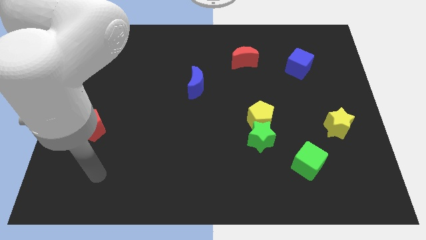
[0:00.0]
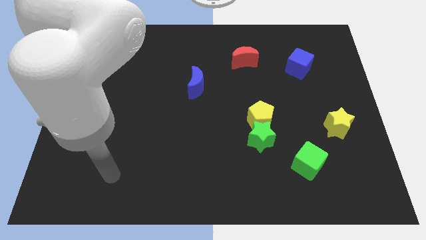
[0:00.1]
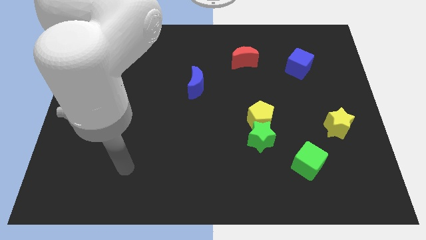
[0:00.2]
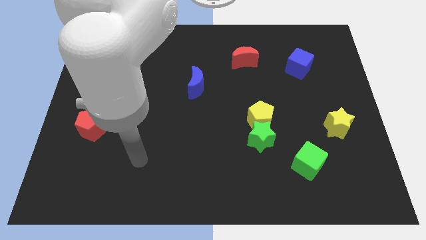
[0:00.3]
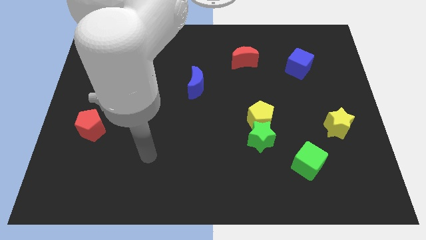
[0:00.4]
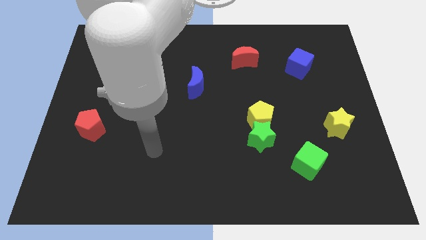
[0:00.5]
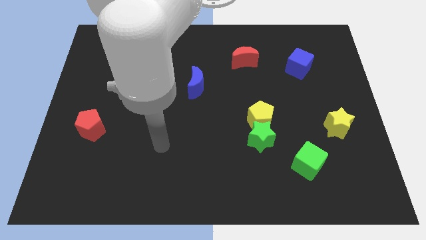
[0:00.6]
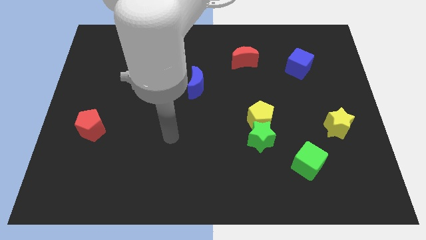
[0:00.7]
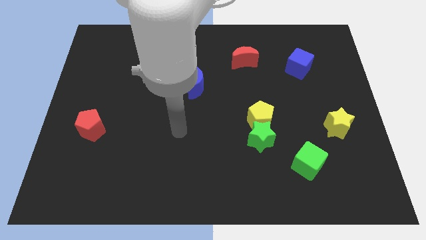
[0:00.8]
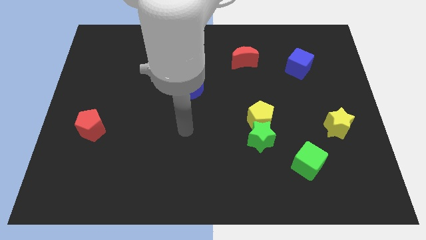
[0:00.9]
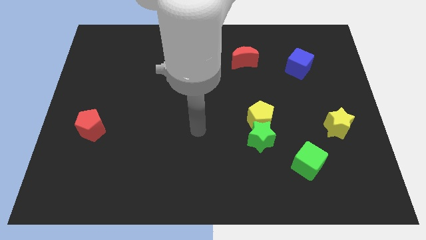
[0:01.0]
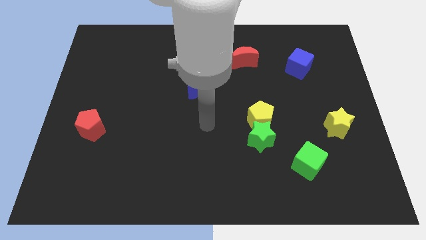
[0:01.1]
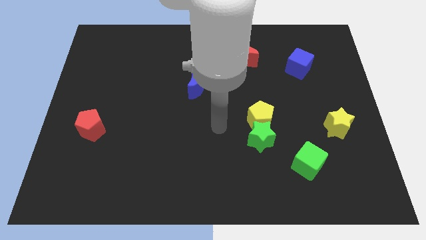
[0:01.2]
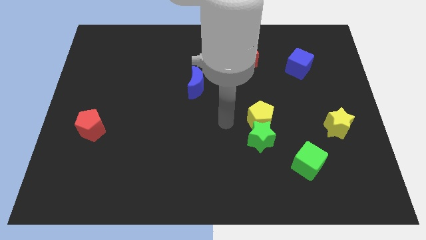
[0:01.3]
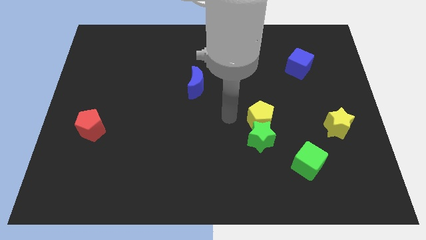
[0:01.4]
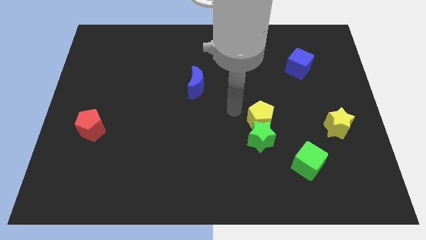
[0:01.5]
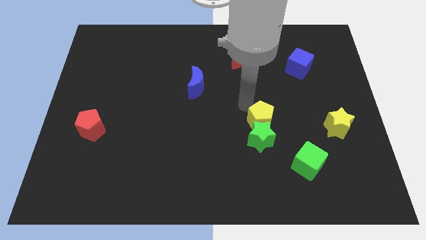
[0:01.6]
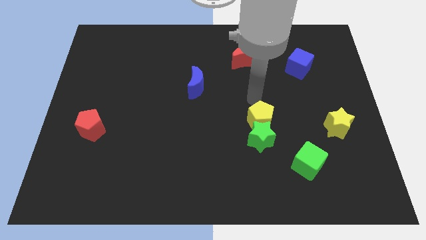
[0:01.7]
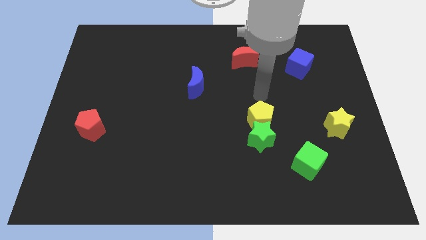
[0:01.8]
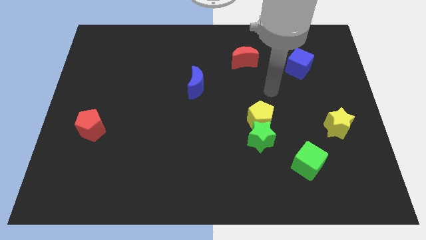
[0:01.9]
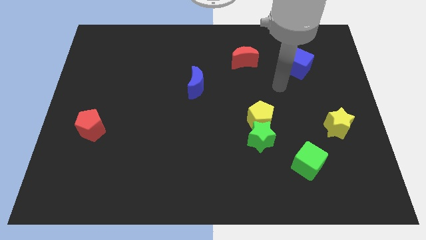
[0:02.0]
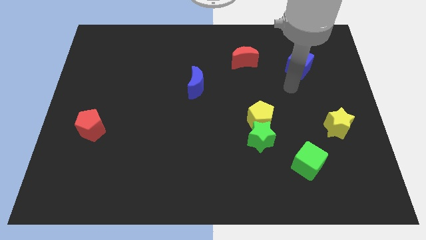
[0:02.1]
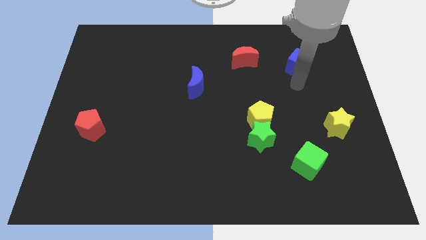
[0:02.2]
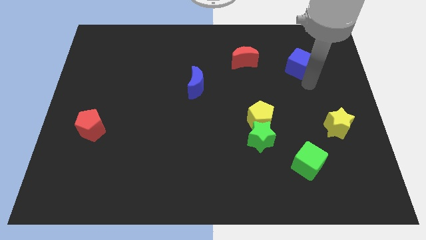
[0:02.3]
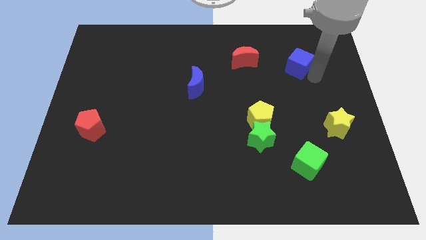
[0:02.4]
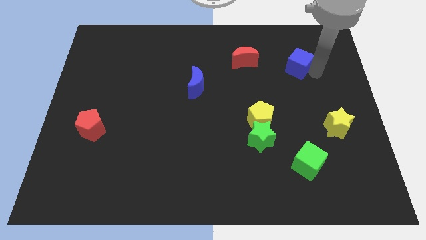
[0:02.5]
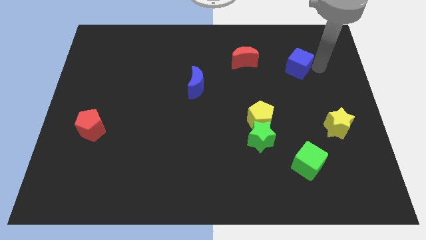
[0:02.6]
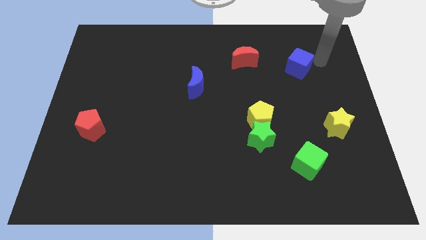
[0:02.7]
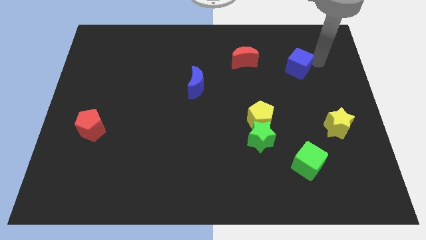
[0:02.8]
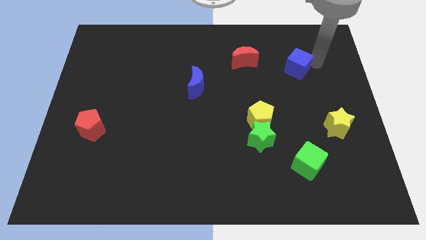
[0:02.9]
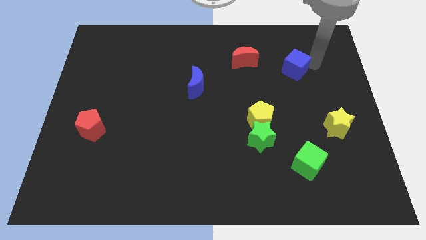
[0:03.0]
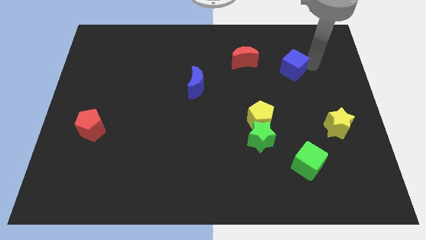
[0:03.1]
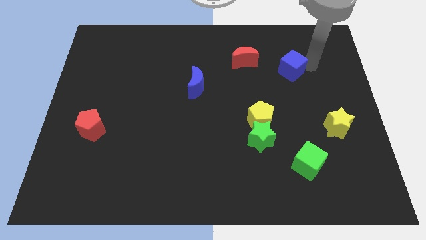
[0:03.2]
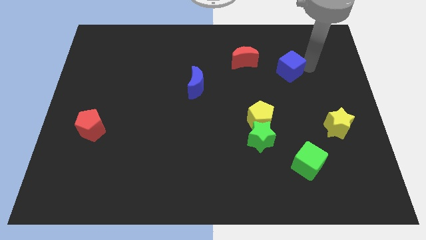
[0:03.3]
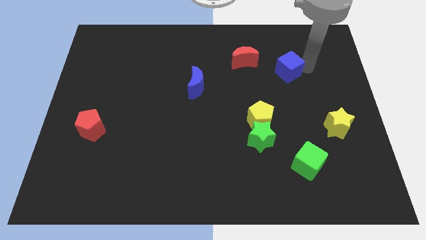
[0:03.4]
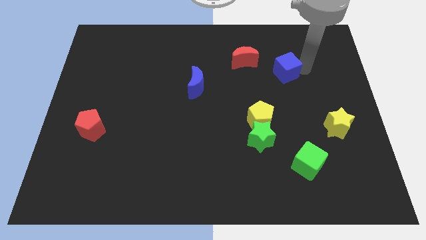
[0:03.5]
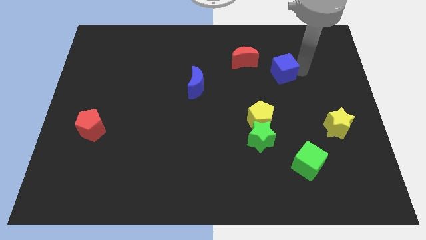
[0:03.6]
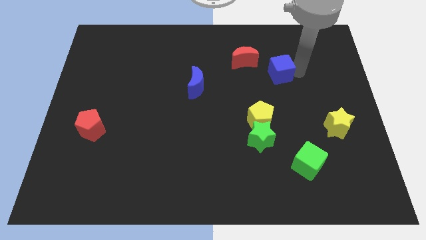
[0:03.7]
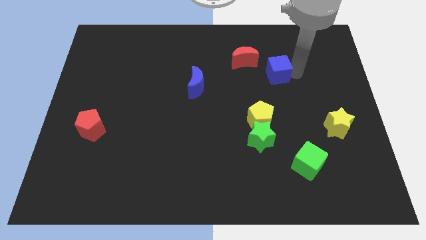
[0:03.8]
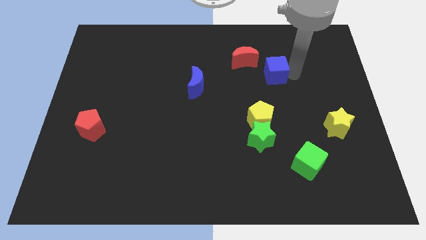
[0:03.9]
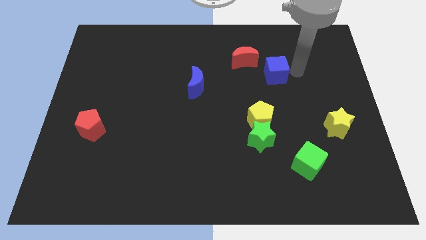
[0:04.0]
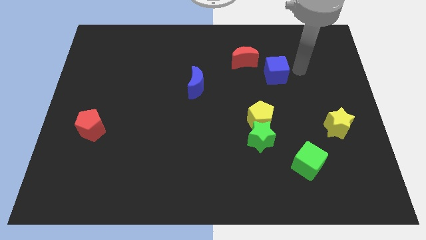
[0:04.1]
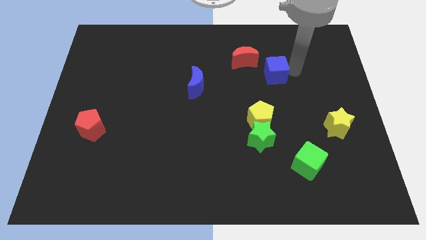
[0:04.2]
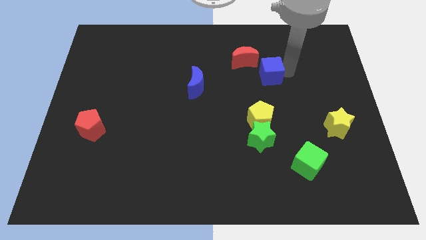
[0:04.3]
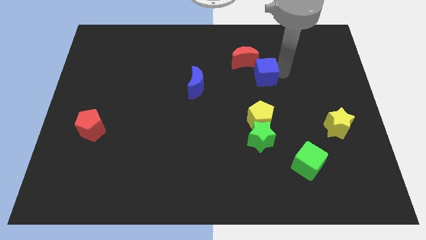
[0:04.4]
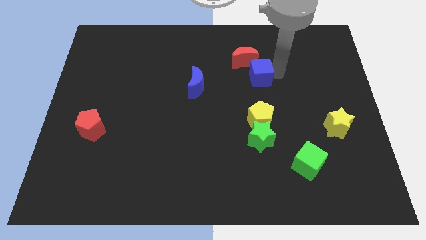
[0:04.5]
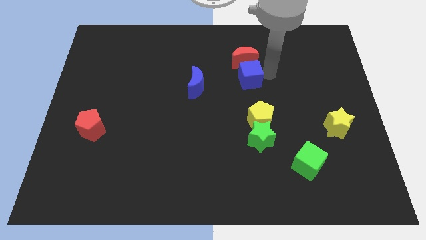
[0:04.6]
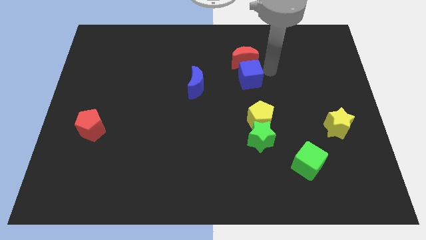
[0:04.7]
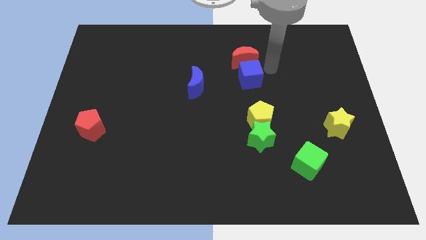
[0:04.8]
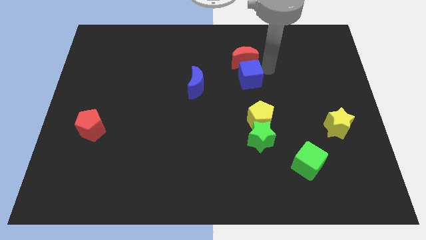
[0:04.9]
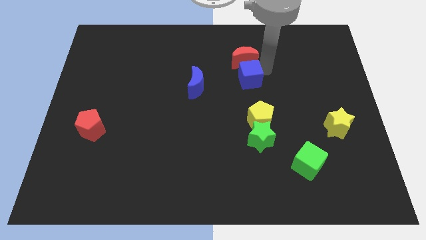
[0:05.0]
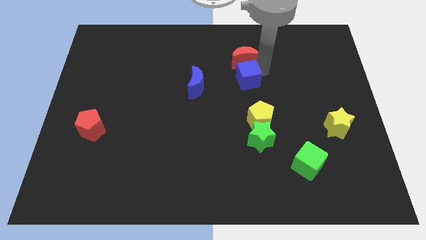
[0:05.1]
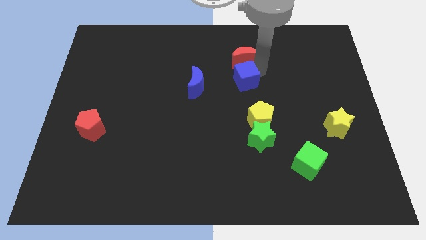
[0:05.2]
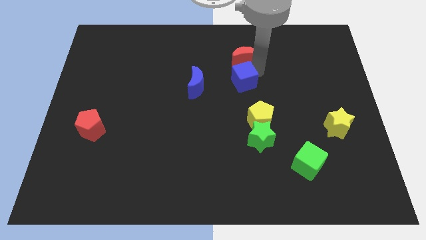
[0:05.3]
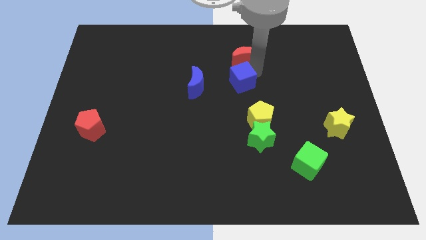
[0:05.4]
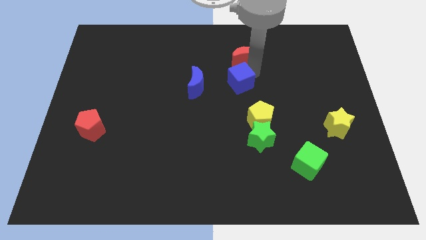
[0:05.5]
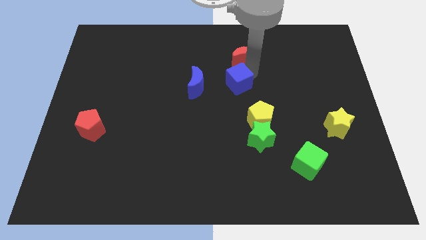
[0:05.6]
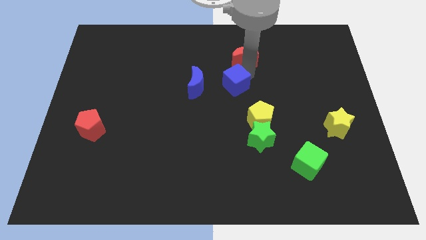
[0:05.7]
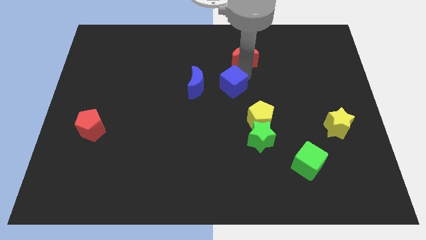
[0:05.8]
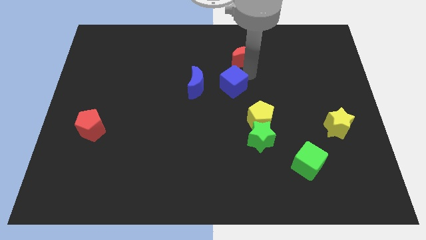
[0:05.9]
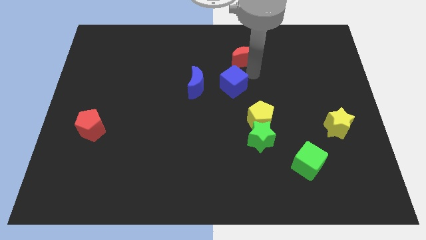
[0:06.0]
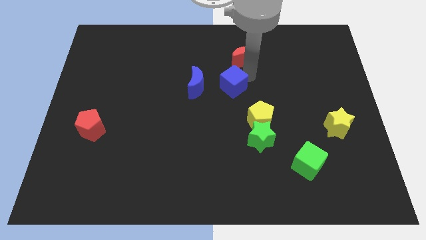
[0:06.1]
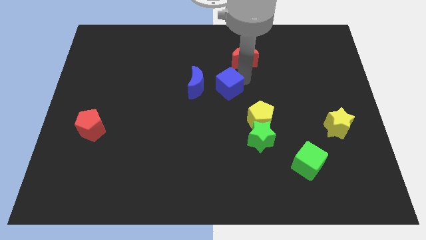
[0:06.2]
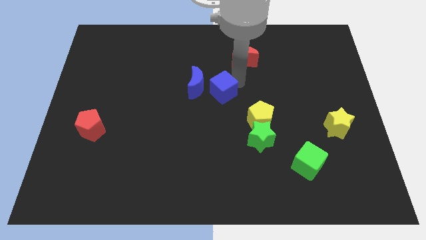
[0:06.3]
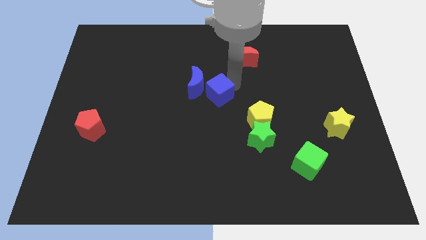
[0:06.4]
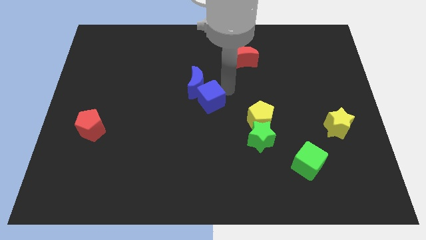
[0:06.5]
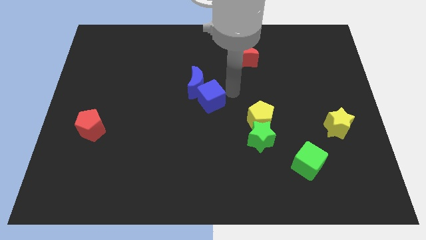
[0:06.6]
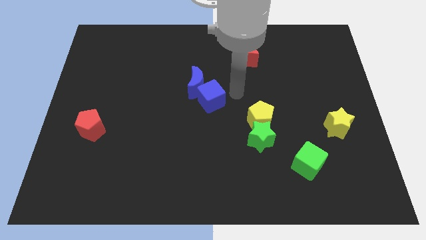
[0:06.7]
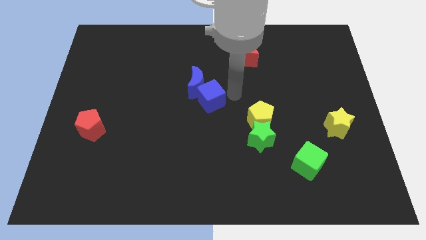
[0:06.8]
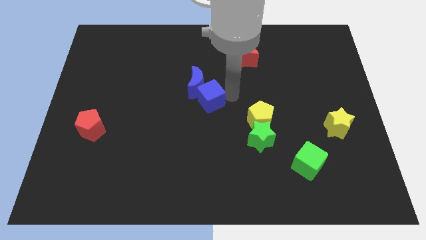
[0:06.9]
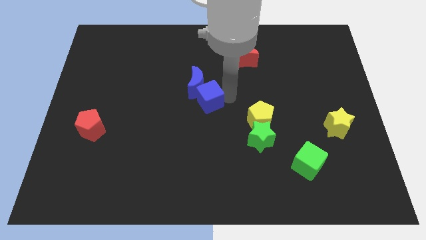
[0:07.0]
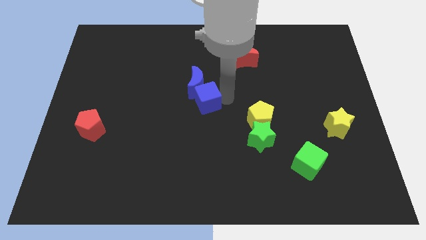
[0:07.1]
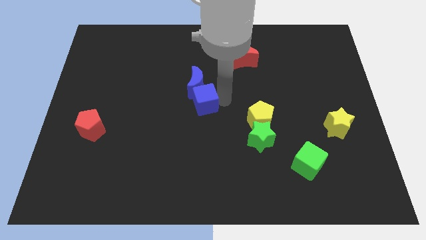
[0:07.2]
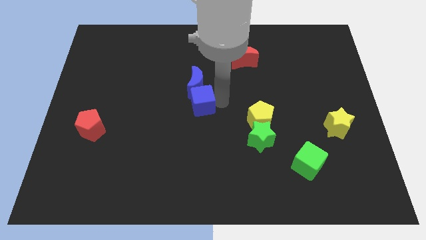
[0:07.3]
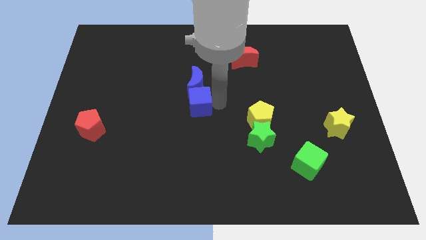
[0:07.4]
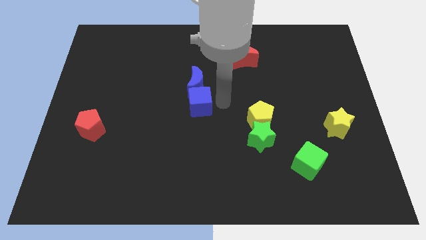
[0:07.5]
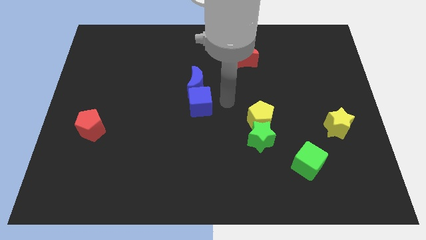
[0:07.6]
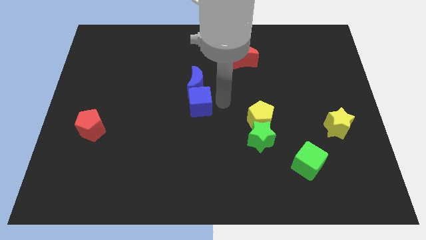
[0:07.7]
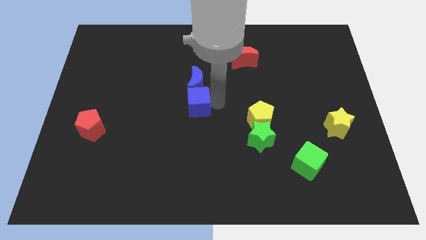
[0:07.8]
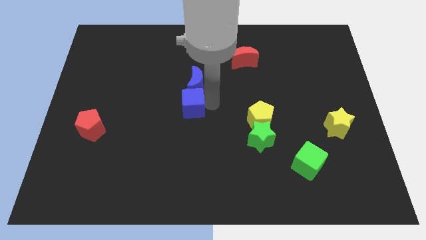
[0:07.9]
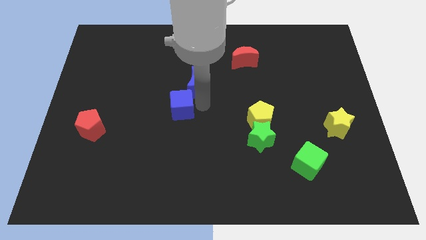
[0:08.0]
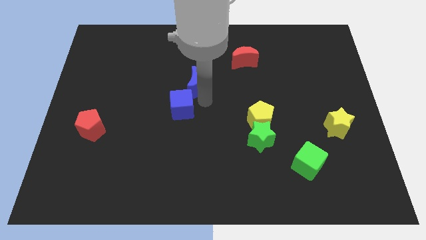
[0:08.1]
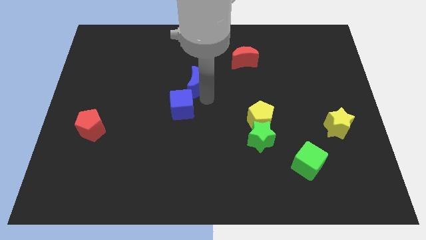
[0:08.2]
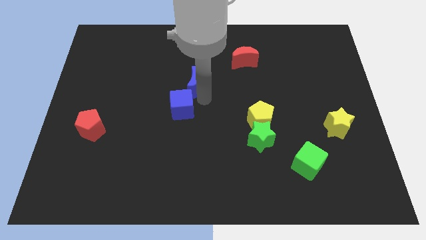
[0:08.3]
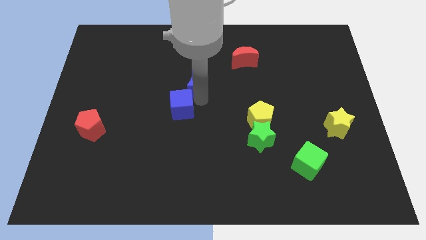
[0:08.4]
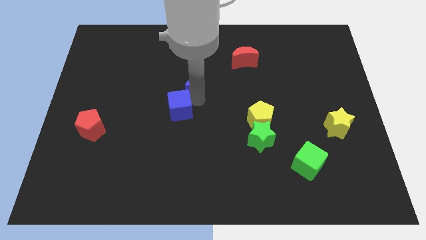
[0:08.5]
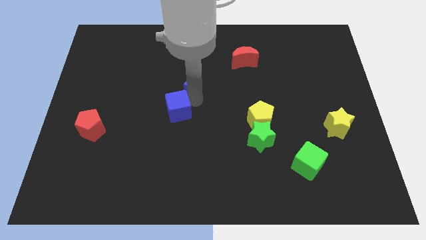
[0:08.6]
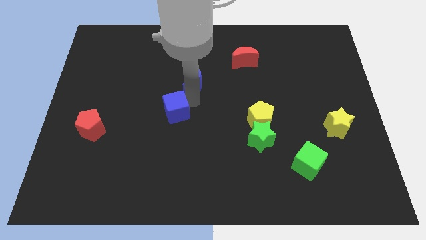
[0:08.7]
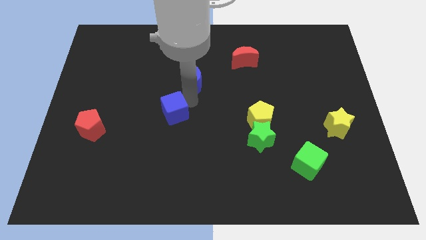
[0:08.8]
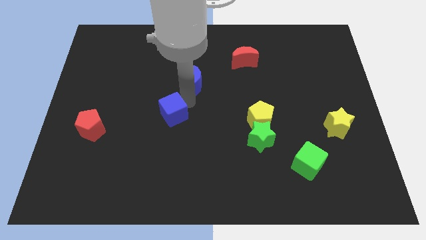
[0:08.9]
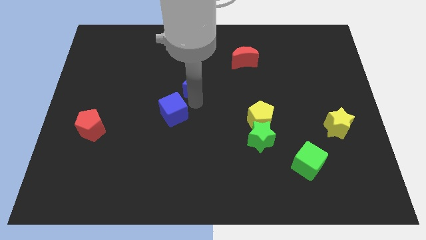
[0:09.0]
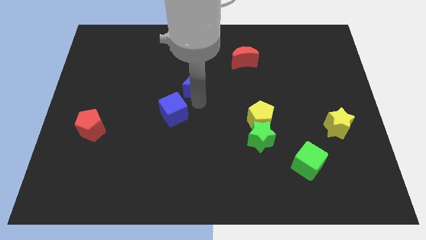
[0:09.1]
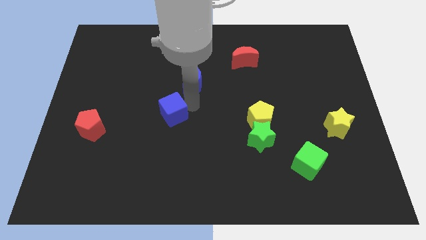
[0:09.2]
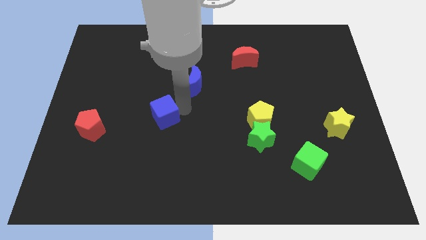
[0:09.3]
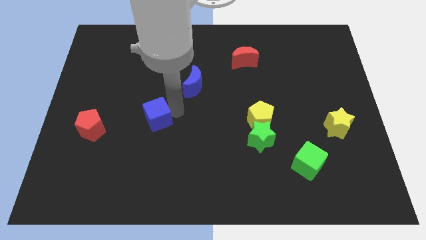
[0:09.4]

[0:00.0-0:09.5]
slide the blue cube right of the red pentagon
